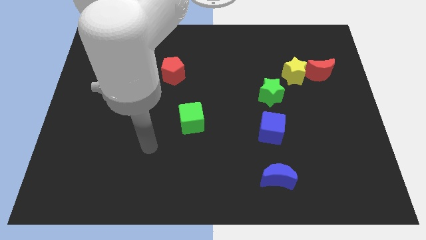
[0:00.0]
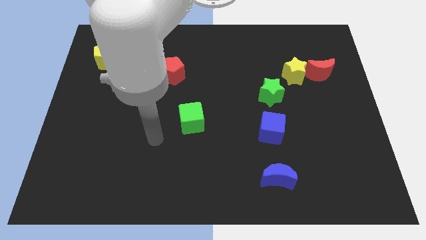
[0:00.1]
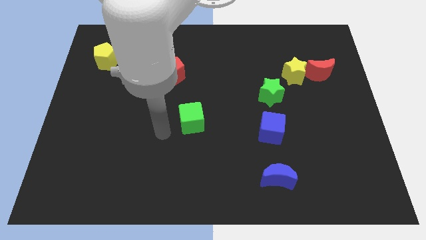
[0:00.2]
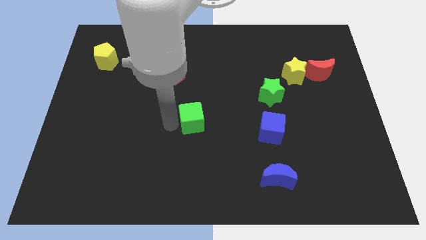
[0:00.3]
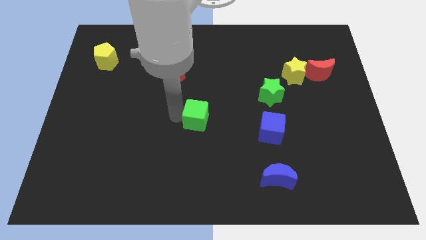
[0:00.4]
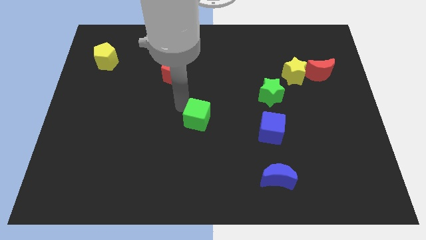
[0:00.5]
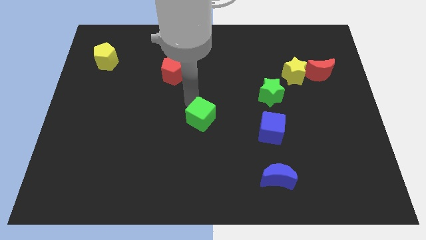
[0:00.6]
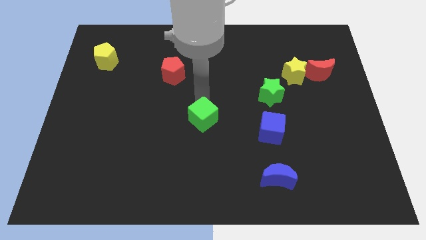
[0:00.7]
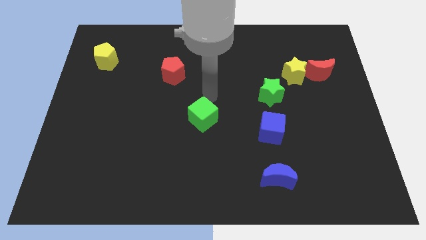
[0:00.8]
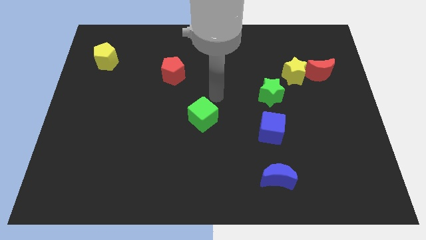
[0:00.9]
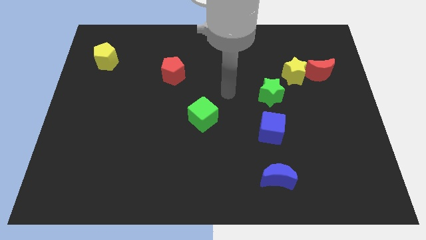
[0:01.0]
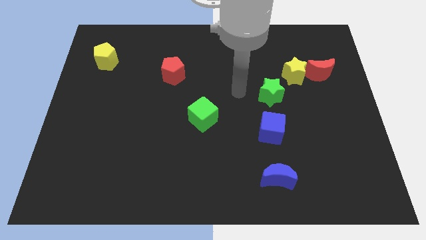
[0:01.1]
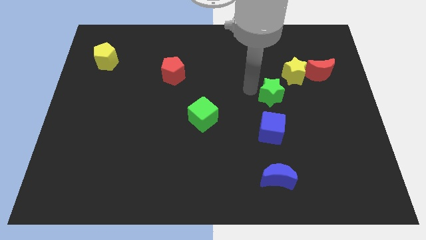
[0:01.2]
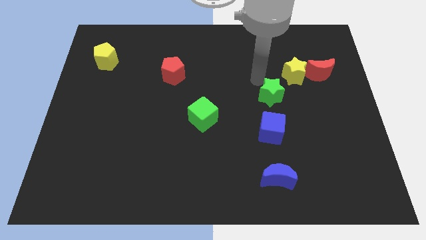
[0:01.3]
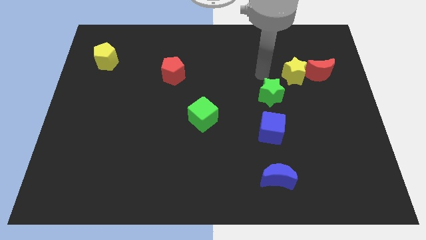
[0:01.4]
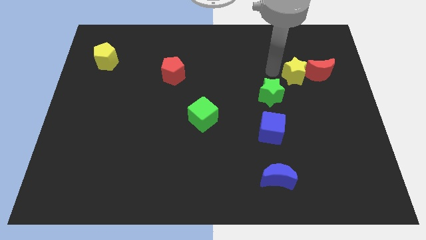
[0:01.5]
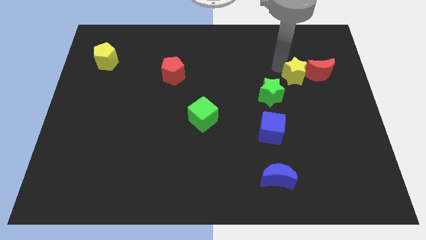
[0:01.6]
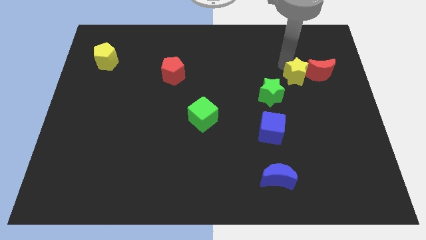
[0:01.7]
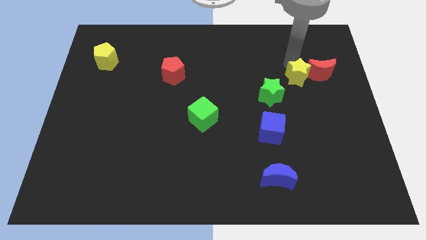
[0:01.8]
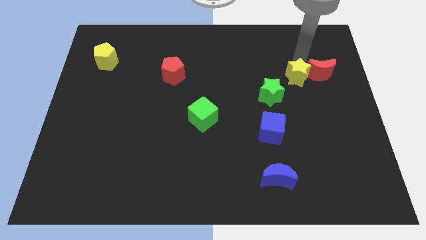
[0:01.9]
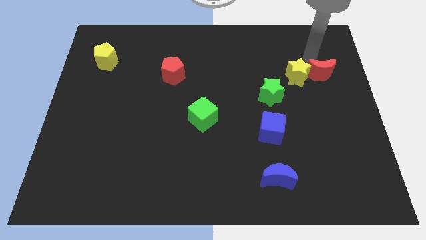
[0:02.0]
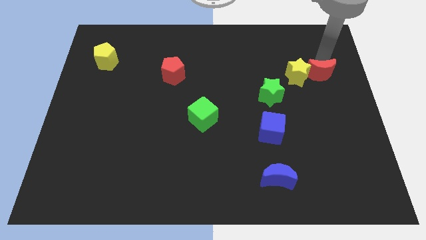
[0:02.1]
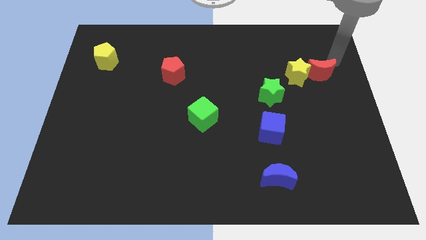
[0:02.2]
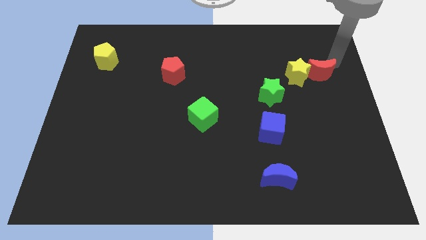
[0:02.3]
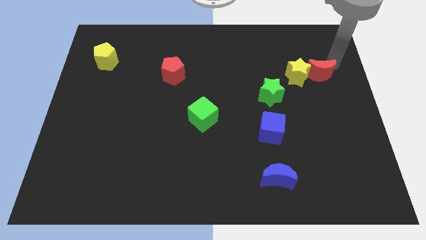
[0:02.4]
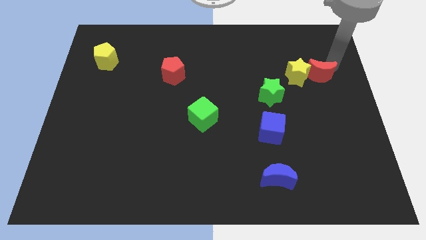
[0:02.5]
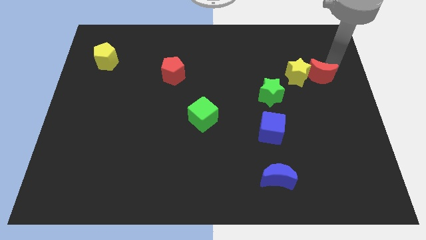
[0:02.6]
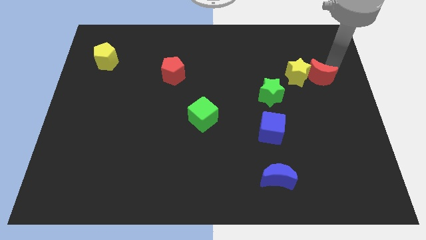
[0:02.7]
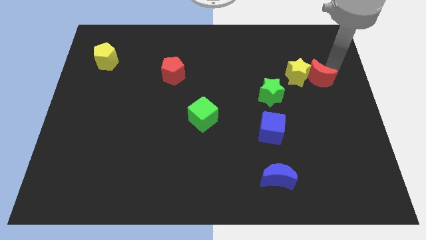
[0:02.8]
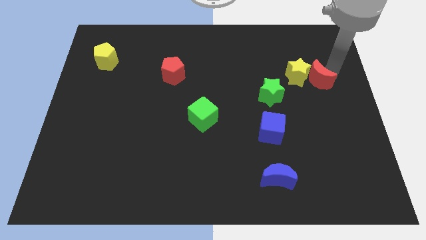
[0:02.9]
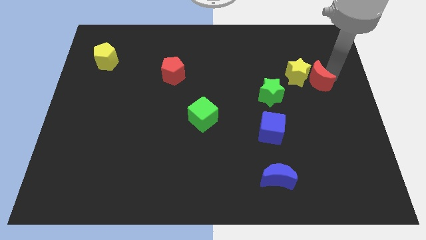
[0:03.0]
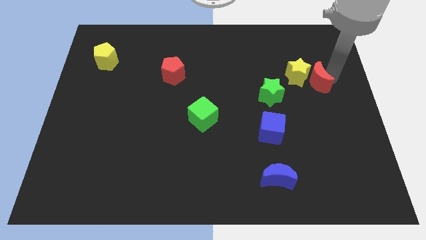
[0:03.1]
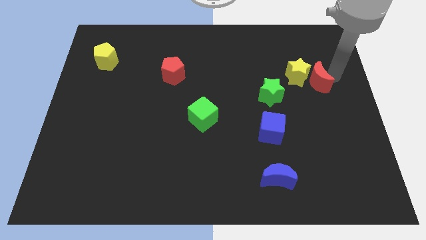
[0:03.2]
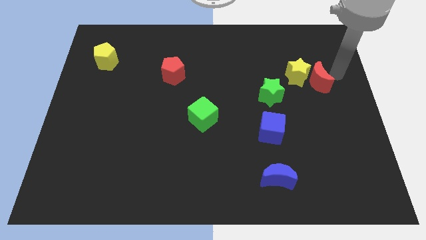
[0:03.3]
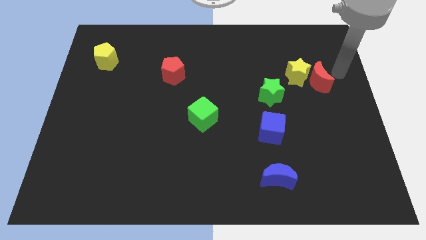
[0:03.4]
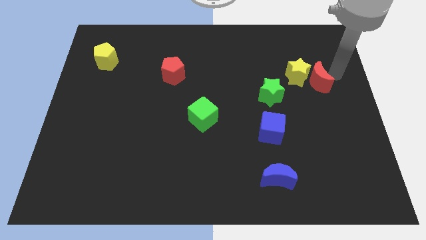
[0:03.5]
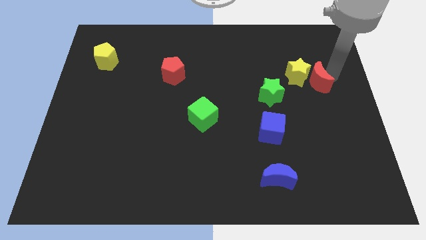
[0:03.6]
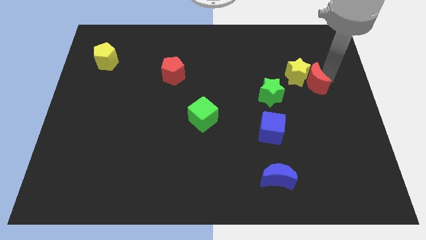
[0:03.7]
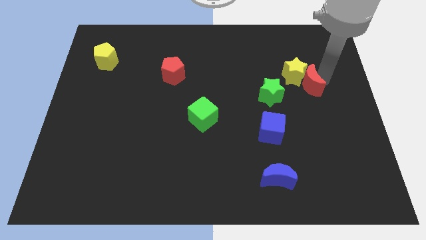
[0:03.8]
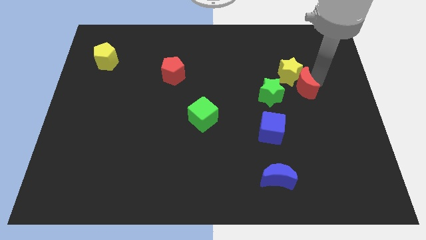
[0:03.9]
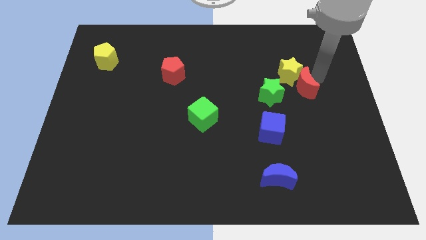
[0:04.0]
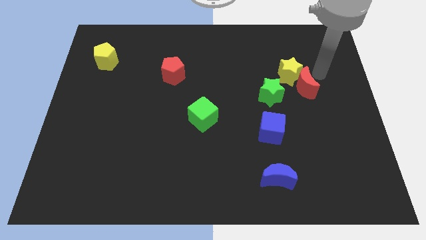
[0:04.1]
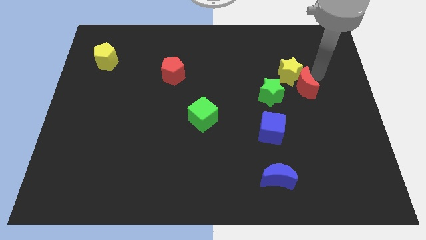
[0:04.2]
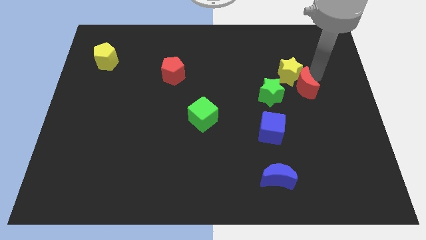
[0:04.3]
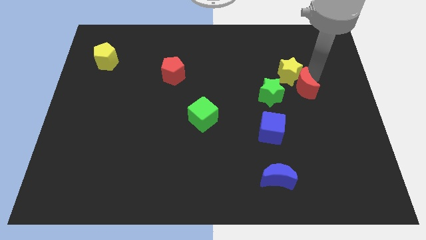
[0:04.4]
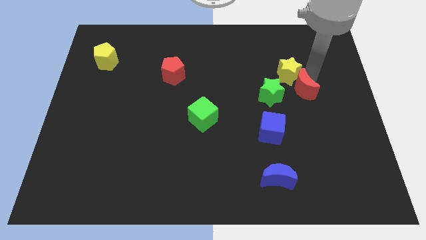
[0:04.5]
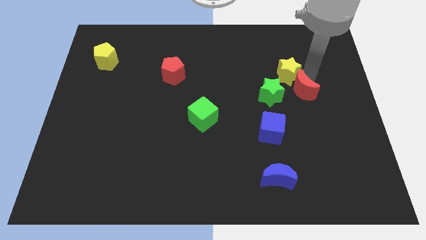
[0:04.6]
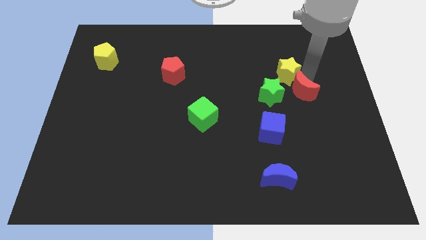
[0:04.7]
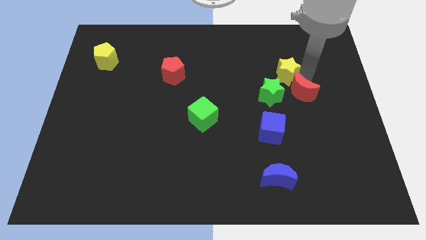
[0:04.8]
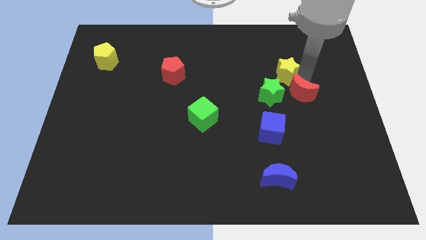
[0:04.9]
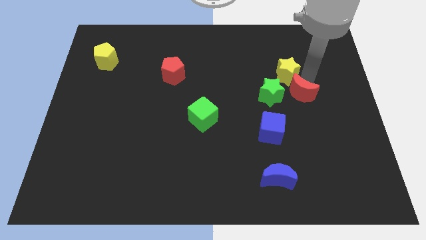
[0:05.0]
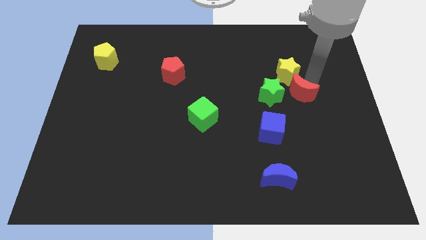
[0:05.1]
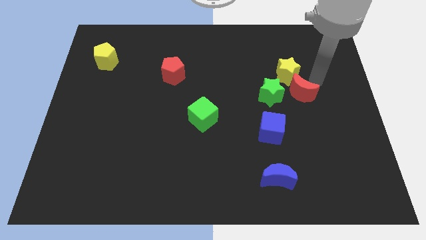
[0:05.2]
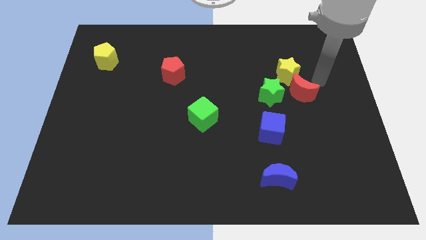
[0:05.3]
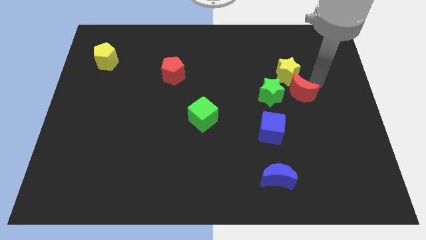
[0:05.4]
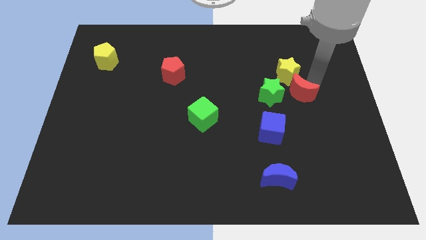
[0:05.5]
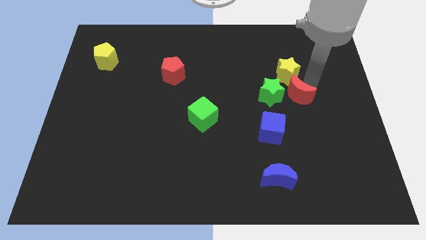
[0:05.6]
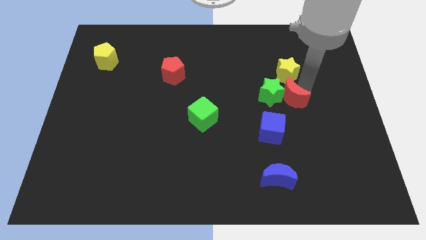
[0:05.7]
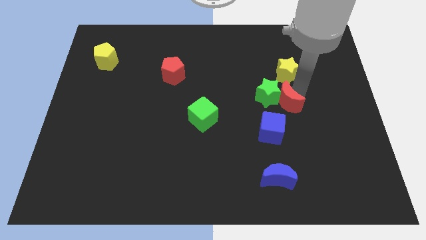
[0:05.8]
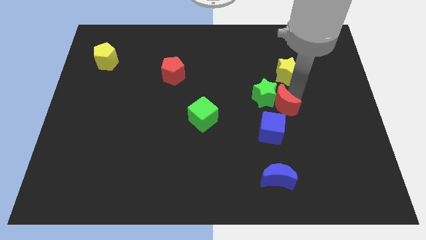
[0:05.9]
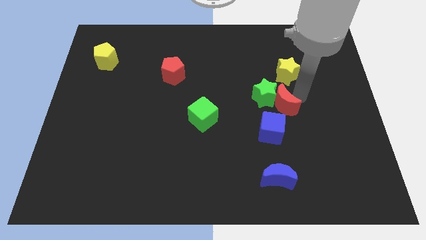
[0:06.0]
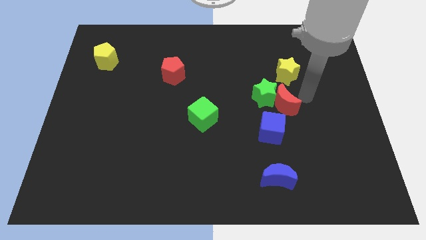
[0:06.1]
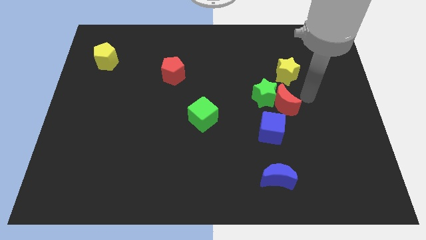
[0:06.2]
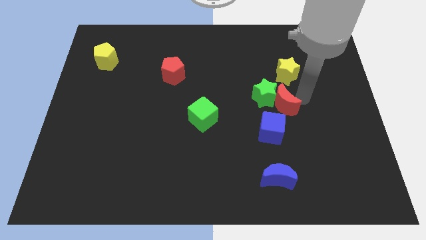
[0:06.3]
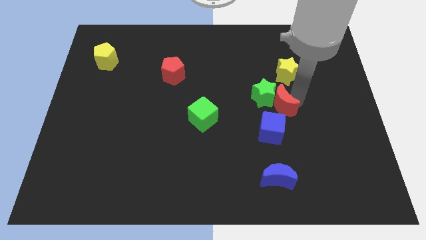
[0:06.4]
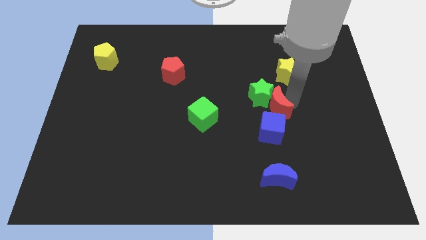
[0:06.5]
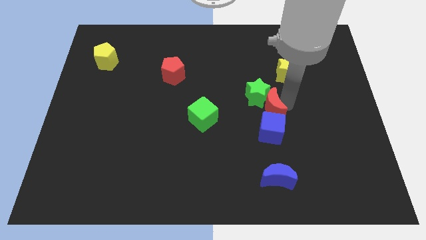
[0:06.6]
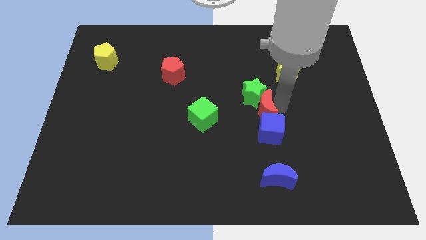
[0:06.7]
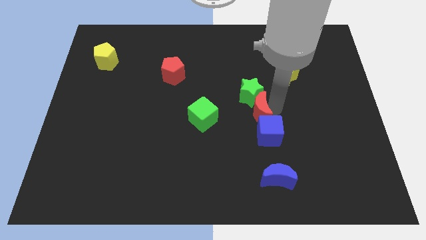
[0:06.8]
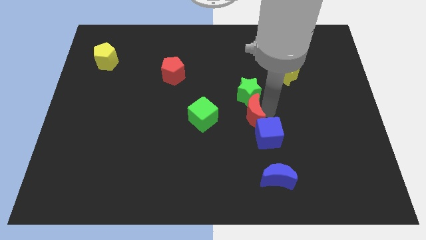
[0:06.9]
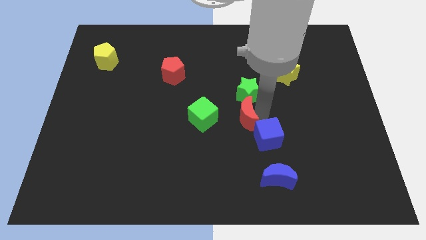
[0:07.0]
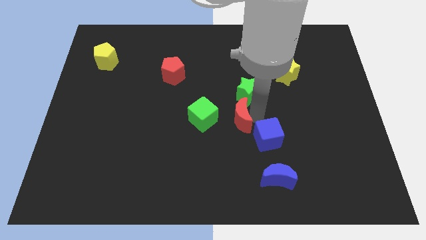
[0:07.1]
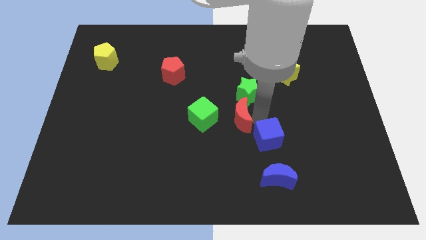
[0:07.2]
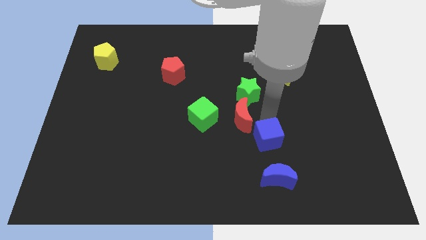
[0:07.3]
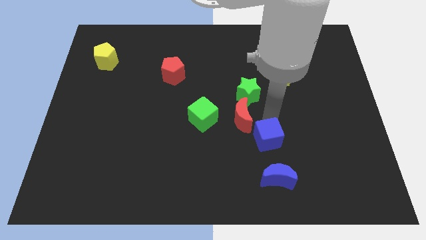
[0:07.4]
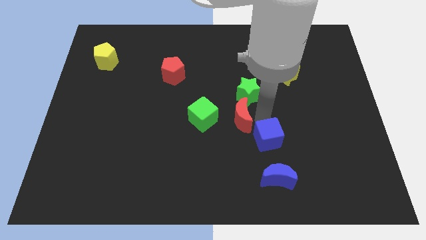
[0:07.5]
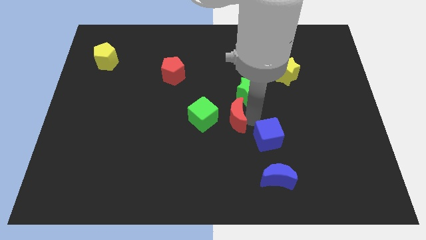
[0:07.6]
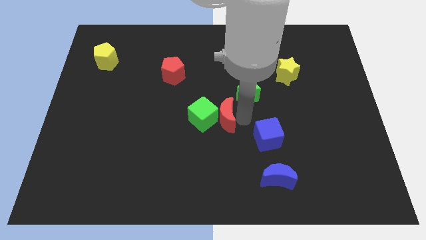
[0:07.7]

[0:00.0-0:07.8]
push the red moon towards the green cube
